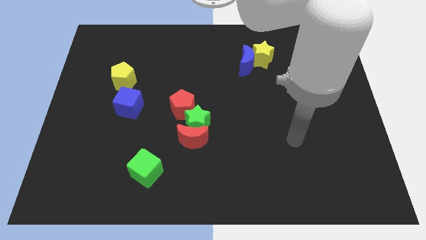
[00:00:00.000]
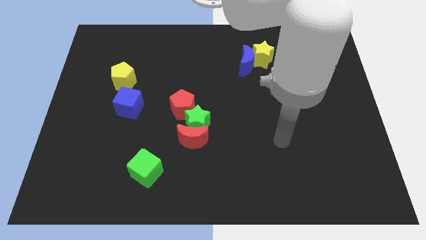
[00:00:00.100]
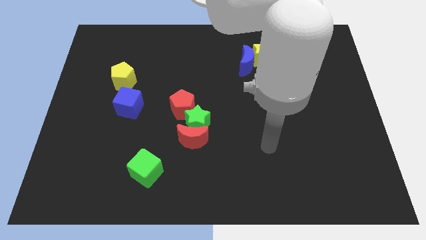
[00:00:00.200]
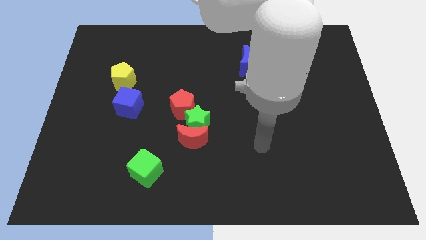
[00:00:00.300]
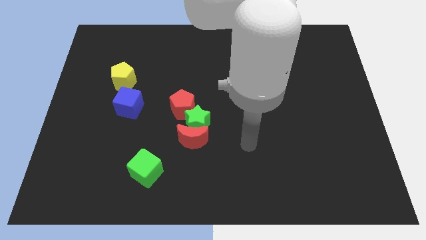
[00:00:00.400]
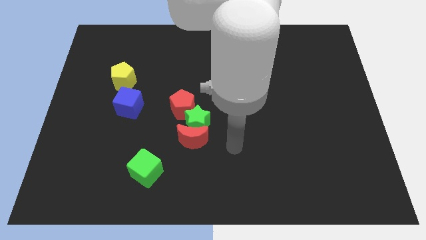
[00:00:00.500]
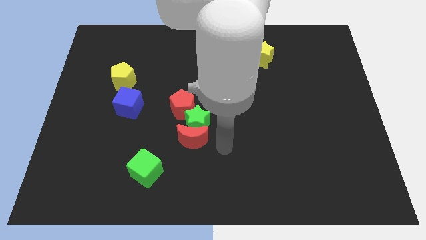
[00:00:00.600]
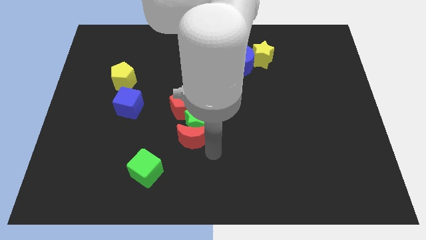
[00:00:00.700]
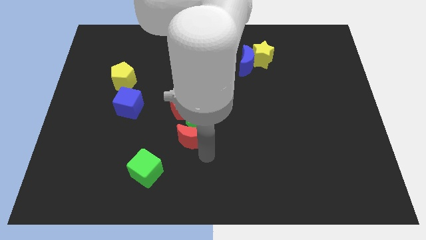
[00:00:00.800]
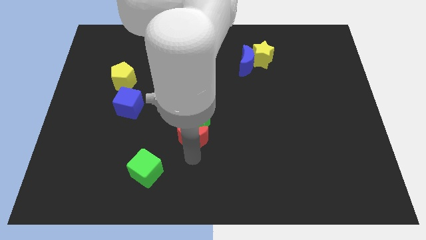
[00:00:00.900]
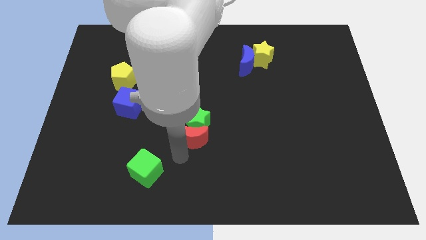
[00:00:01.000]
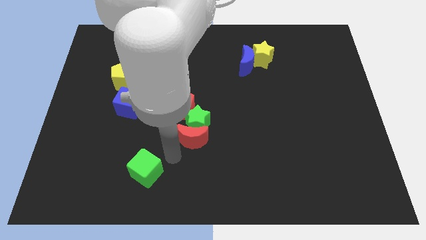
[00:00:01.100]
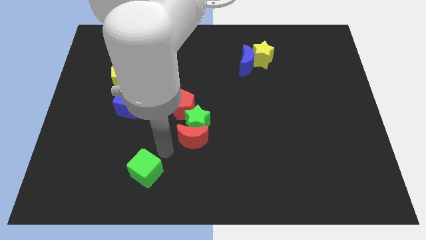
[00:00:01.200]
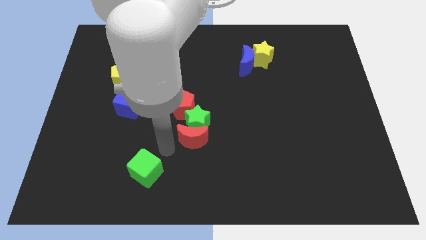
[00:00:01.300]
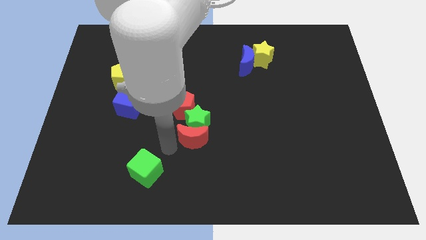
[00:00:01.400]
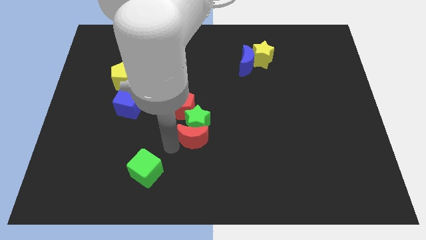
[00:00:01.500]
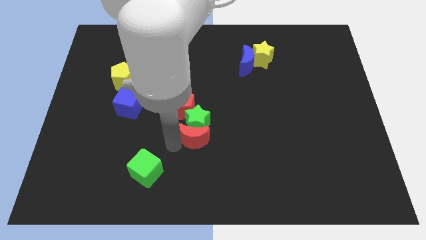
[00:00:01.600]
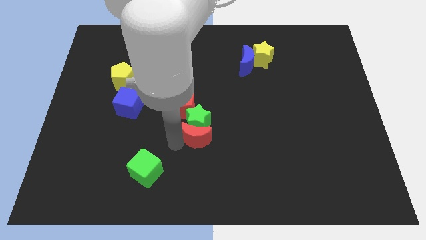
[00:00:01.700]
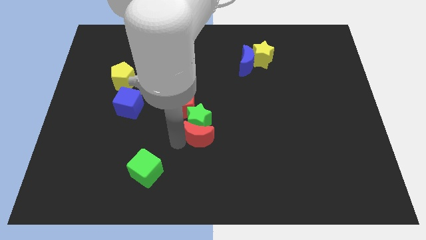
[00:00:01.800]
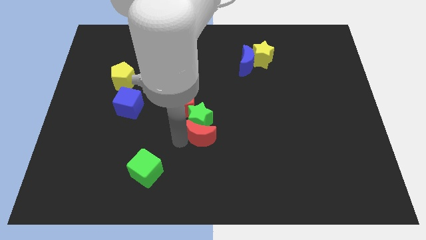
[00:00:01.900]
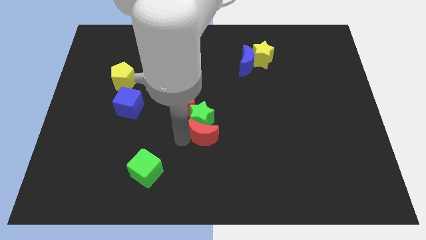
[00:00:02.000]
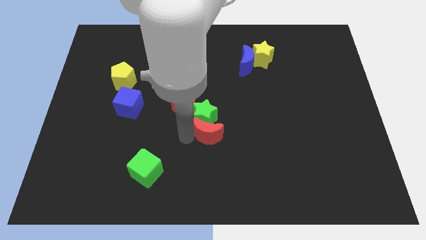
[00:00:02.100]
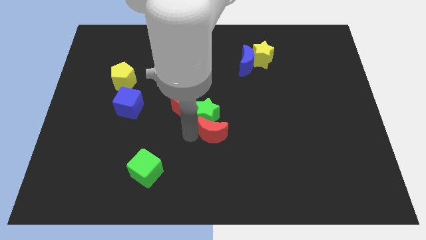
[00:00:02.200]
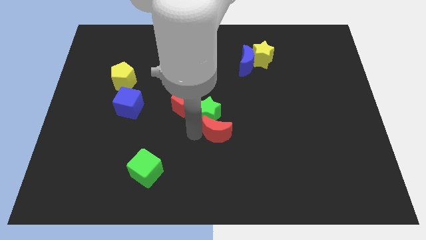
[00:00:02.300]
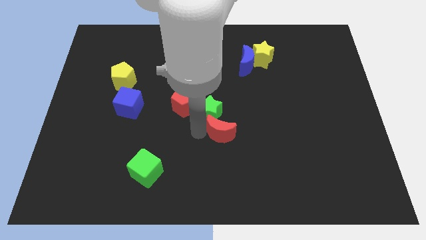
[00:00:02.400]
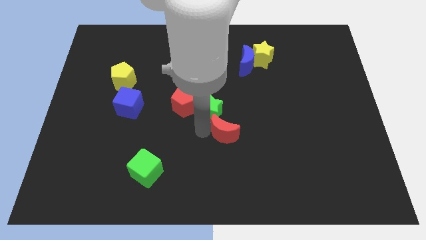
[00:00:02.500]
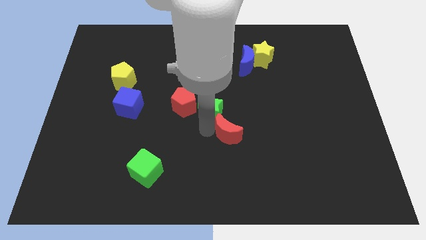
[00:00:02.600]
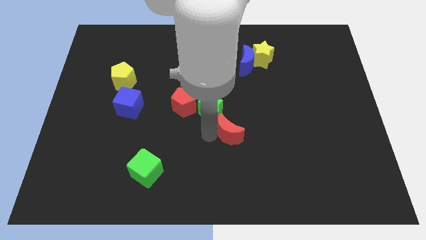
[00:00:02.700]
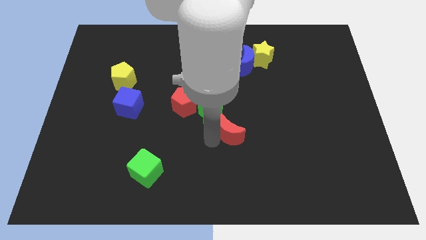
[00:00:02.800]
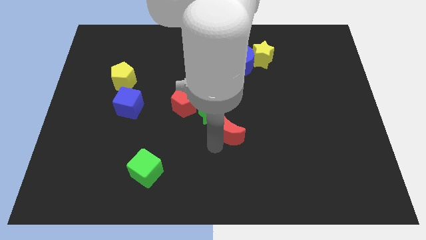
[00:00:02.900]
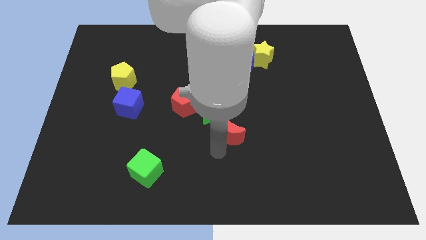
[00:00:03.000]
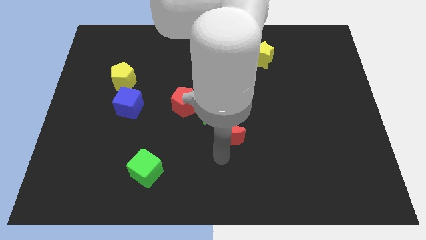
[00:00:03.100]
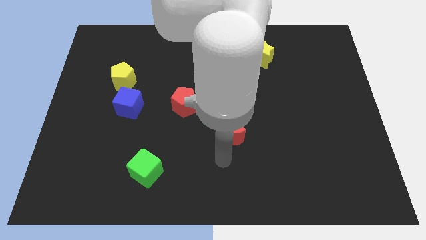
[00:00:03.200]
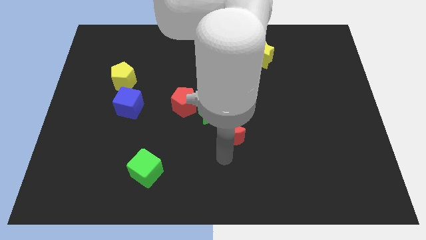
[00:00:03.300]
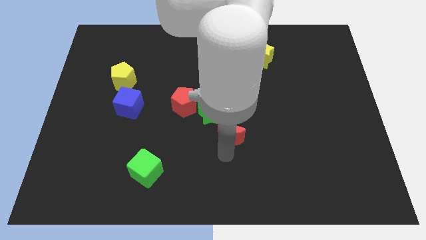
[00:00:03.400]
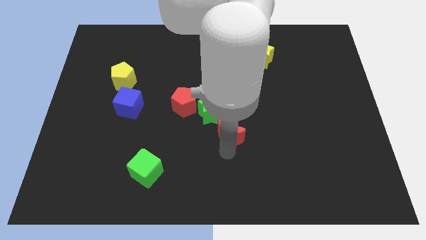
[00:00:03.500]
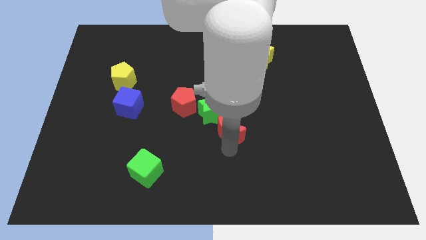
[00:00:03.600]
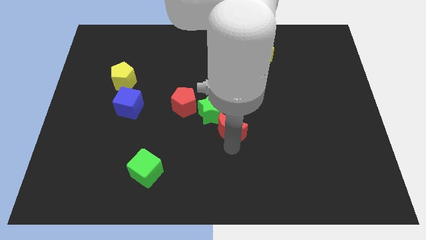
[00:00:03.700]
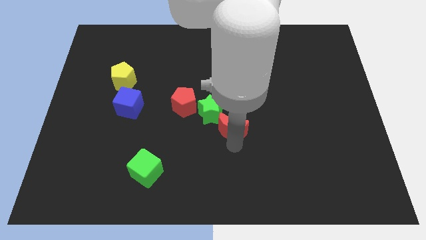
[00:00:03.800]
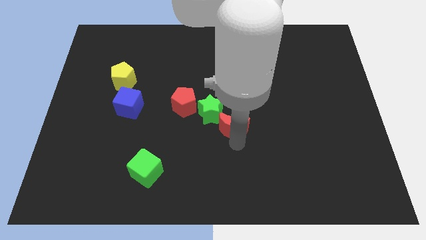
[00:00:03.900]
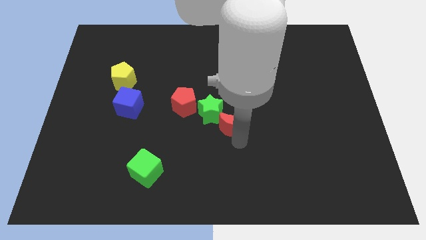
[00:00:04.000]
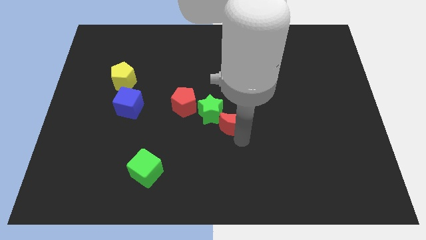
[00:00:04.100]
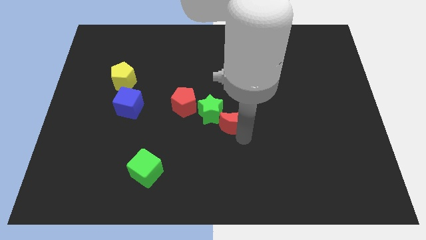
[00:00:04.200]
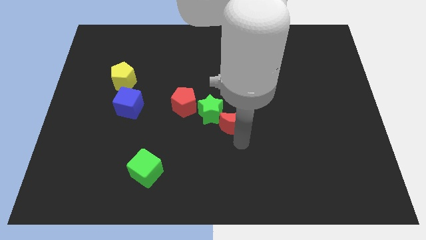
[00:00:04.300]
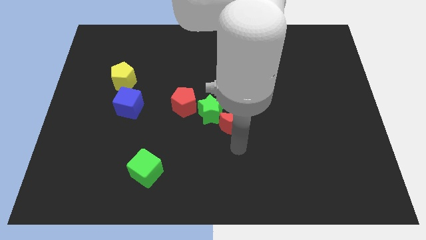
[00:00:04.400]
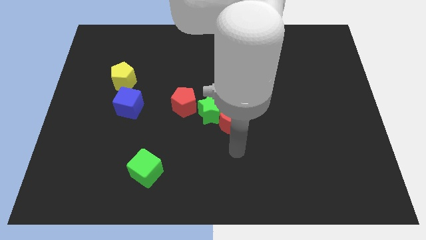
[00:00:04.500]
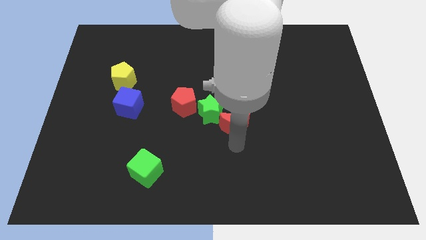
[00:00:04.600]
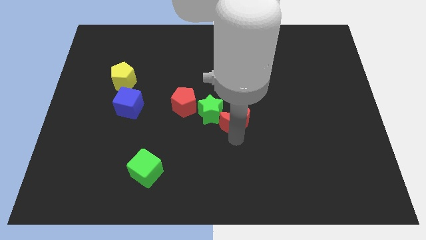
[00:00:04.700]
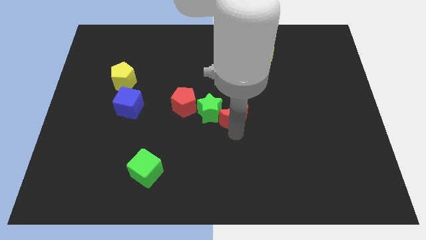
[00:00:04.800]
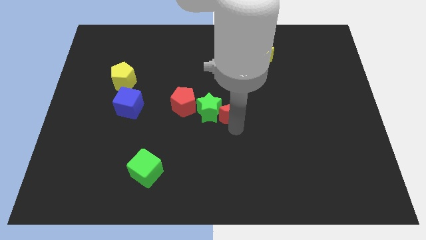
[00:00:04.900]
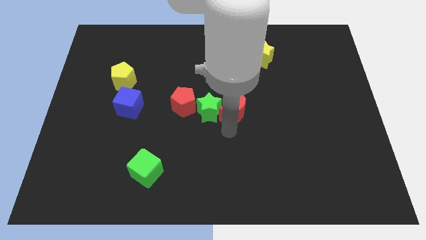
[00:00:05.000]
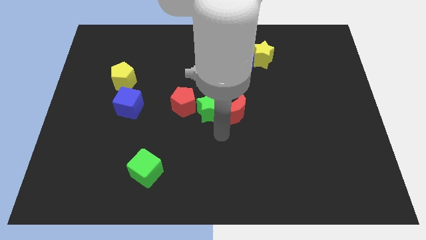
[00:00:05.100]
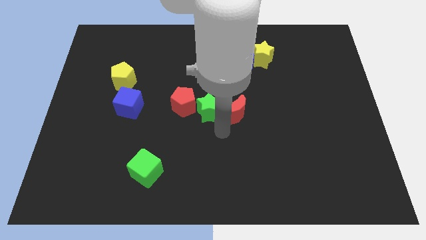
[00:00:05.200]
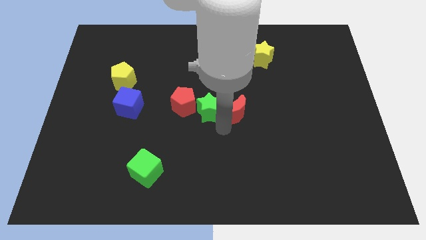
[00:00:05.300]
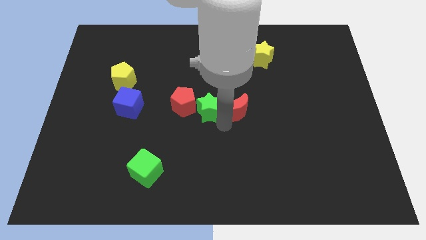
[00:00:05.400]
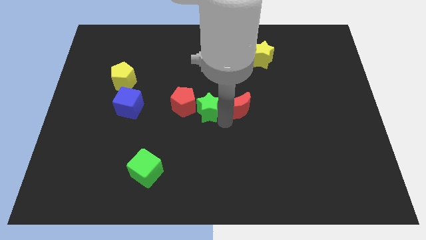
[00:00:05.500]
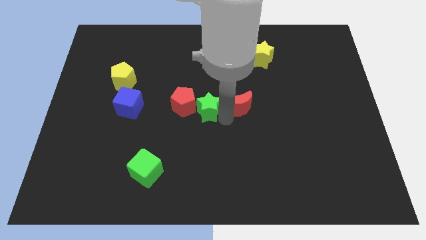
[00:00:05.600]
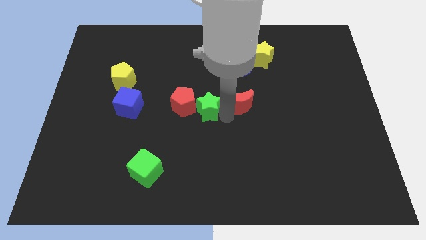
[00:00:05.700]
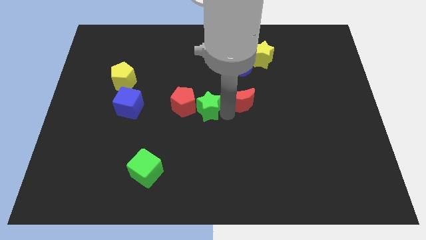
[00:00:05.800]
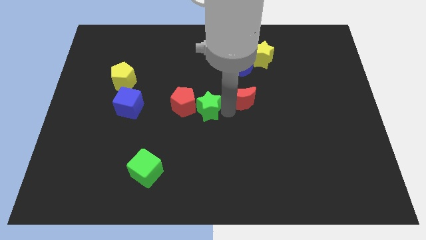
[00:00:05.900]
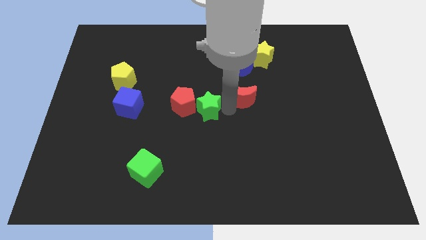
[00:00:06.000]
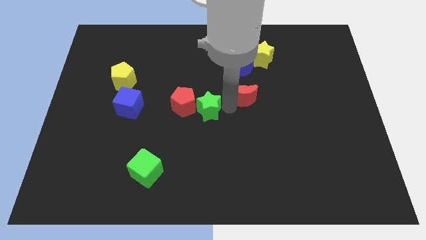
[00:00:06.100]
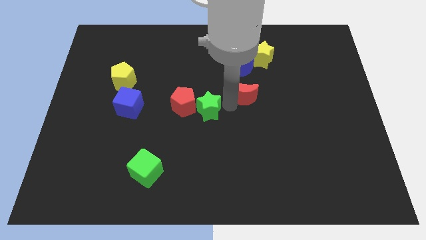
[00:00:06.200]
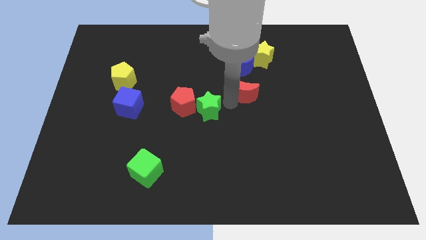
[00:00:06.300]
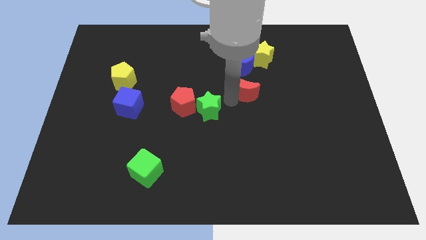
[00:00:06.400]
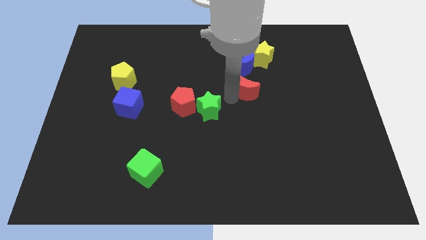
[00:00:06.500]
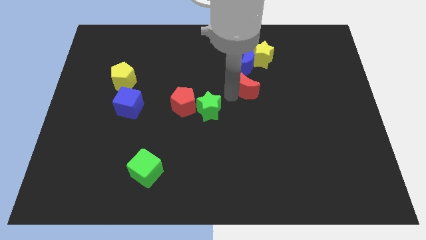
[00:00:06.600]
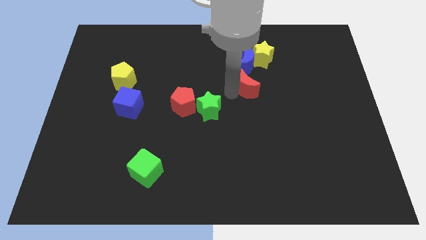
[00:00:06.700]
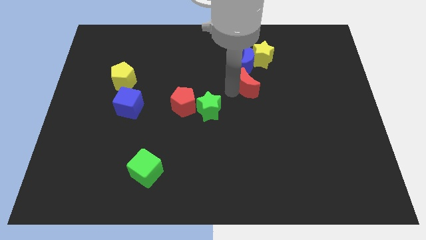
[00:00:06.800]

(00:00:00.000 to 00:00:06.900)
slide the red moon up and to the right

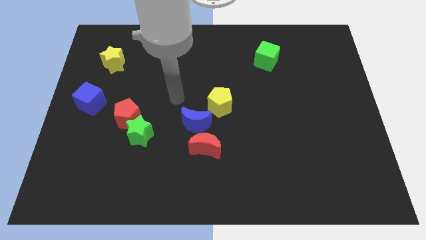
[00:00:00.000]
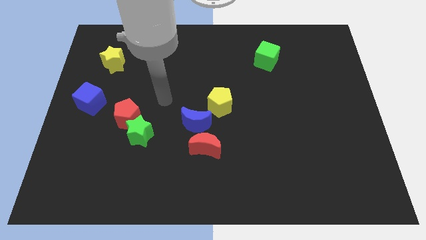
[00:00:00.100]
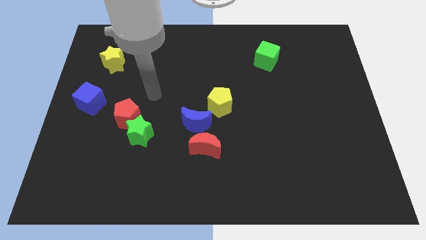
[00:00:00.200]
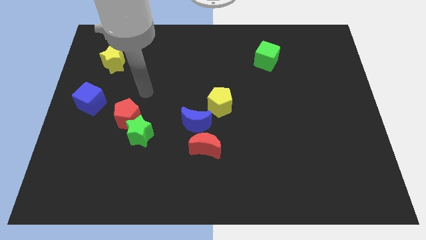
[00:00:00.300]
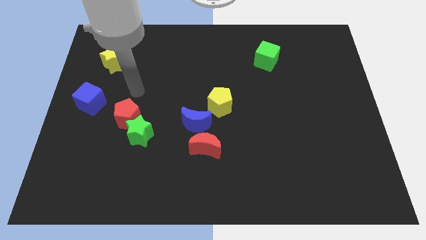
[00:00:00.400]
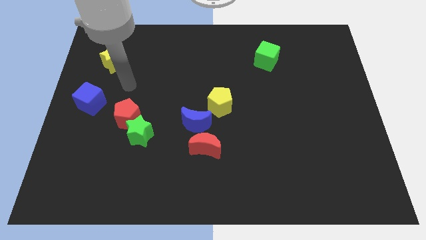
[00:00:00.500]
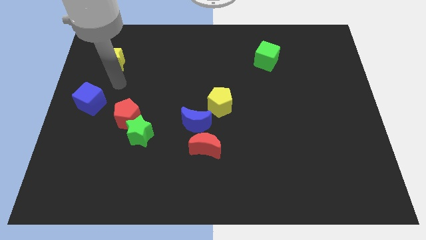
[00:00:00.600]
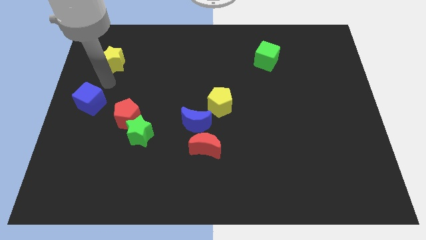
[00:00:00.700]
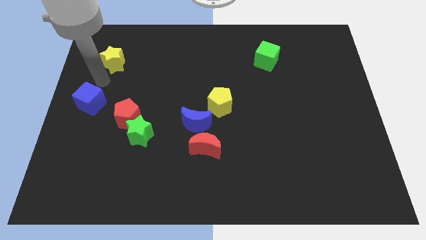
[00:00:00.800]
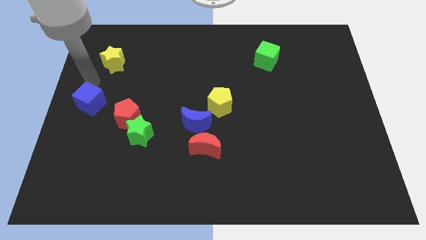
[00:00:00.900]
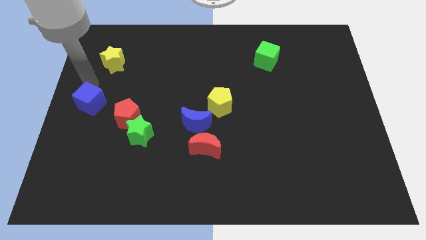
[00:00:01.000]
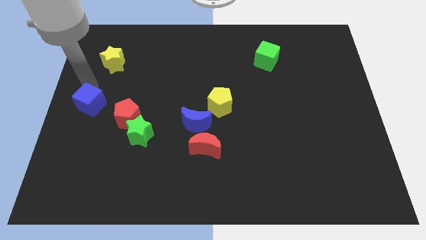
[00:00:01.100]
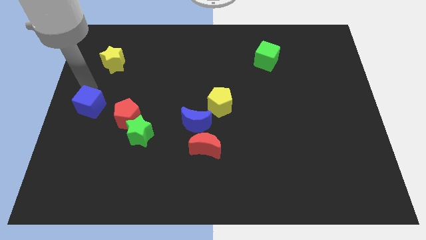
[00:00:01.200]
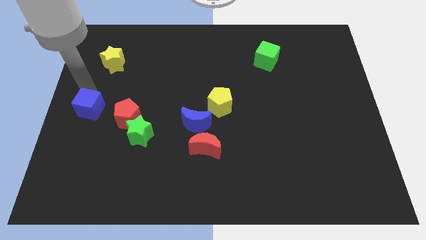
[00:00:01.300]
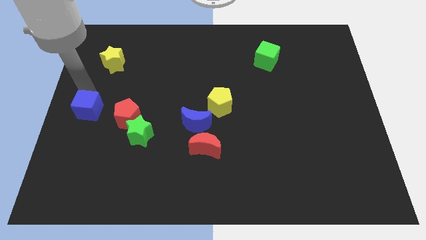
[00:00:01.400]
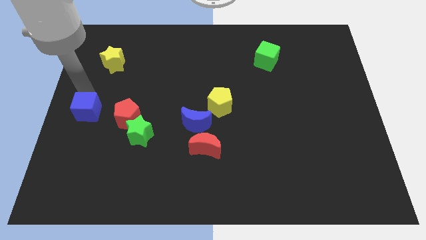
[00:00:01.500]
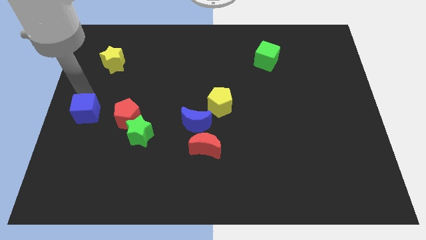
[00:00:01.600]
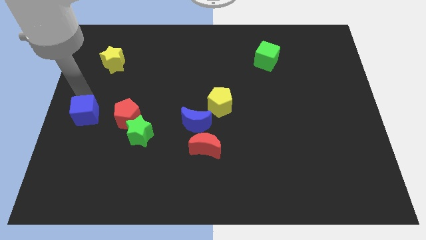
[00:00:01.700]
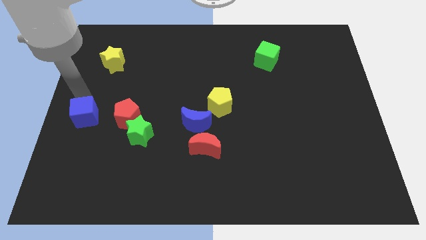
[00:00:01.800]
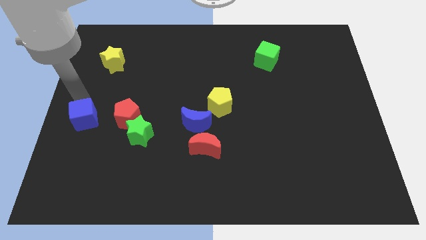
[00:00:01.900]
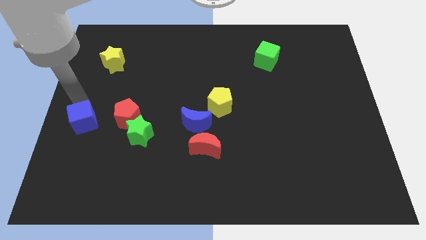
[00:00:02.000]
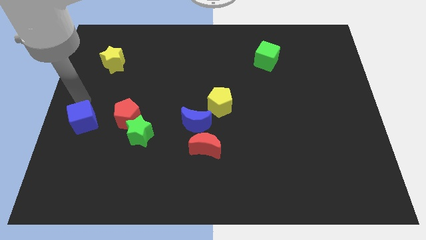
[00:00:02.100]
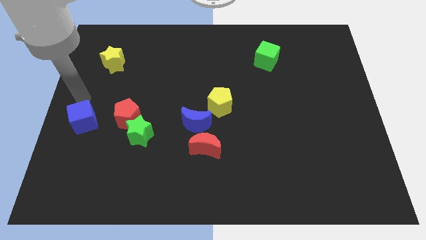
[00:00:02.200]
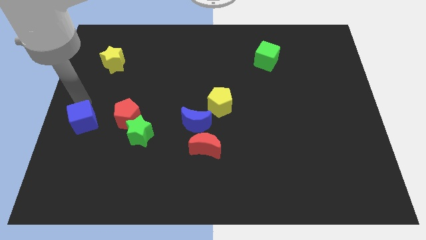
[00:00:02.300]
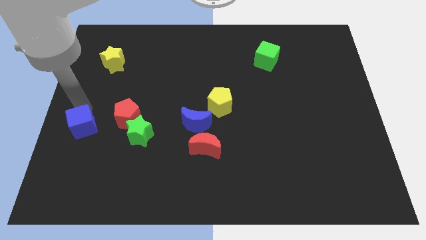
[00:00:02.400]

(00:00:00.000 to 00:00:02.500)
slightly push the blue cube downwards
